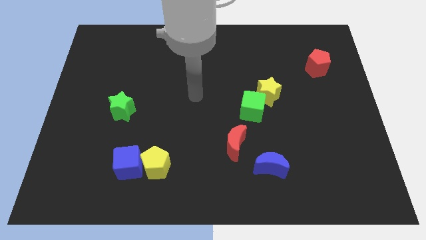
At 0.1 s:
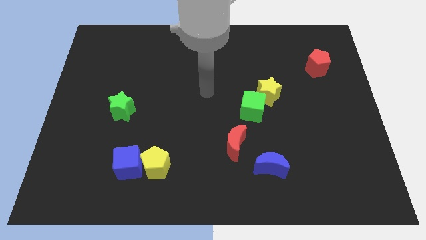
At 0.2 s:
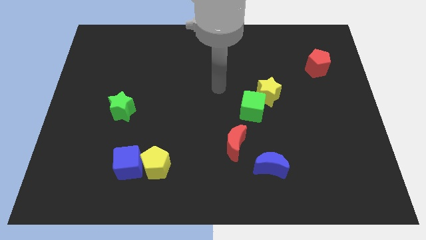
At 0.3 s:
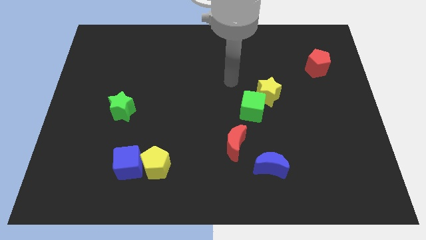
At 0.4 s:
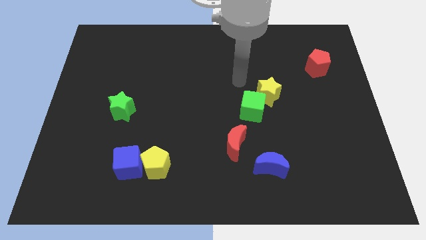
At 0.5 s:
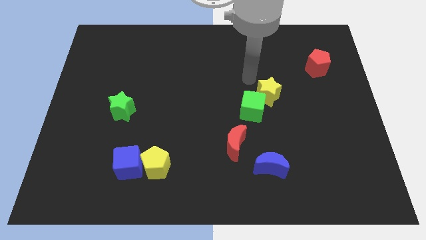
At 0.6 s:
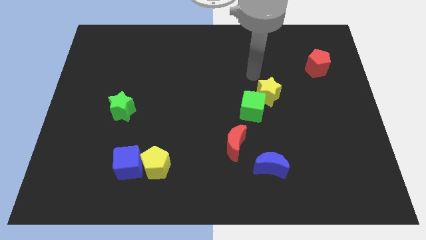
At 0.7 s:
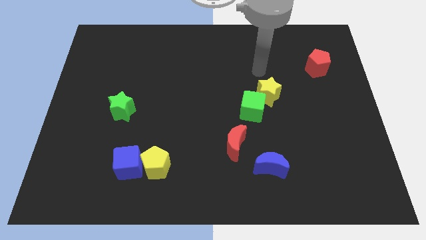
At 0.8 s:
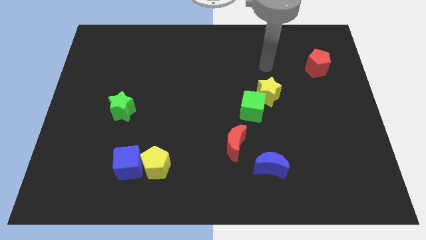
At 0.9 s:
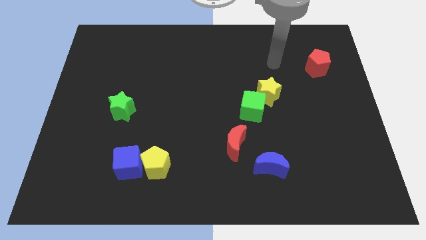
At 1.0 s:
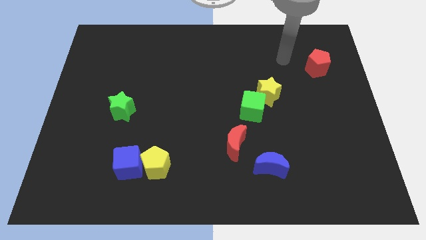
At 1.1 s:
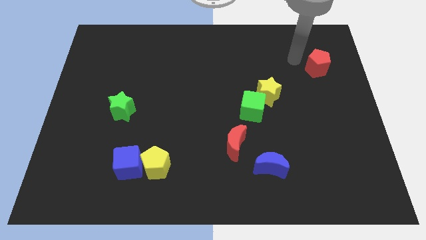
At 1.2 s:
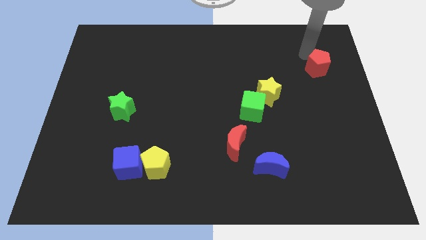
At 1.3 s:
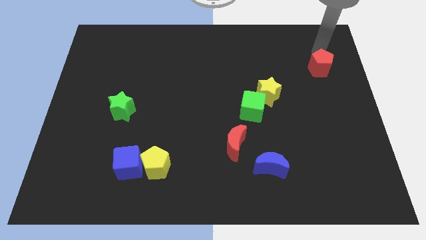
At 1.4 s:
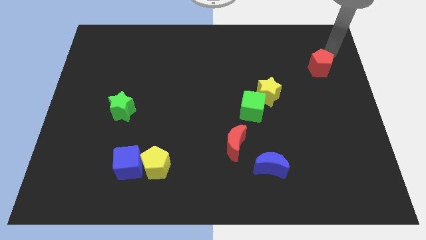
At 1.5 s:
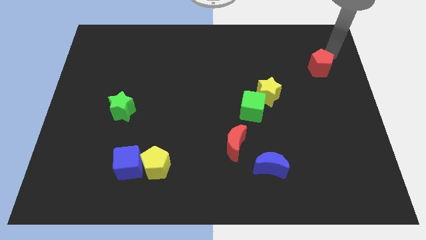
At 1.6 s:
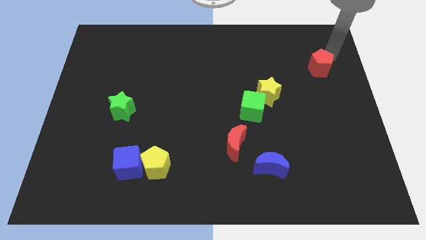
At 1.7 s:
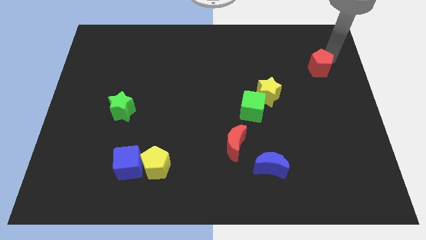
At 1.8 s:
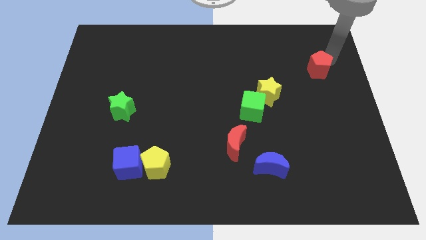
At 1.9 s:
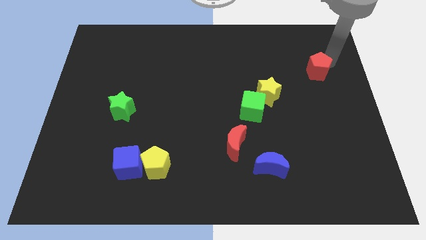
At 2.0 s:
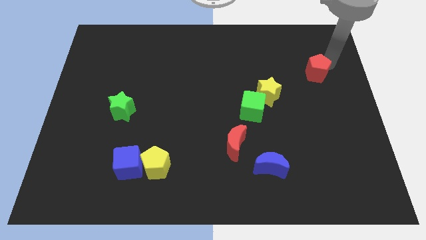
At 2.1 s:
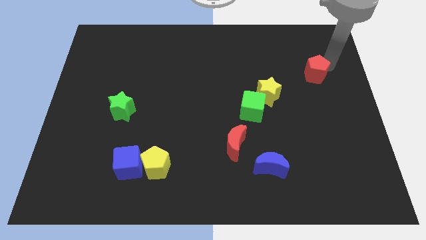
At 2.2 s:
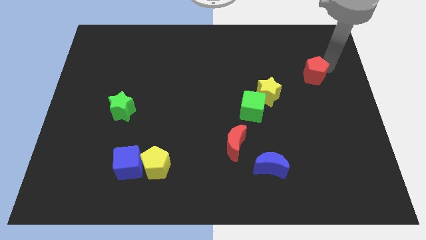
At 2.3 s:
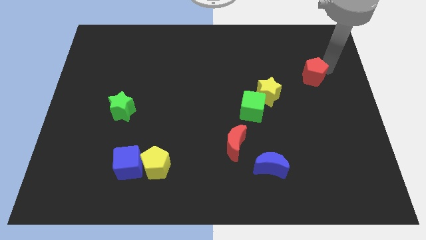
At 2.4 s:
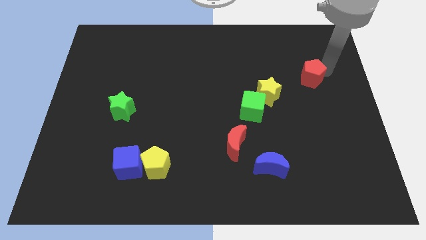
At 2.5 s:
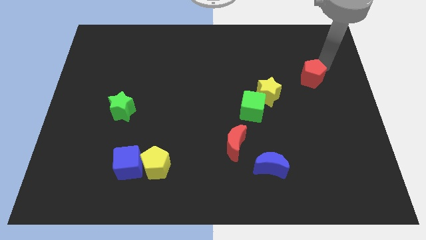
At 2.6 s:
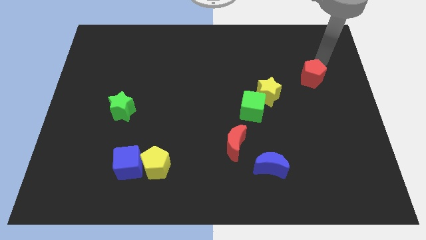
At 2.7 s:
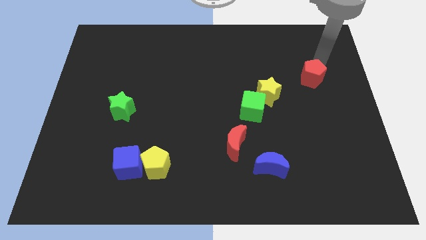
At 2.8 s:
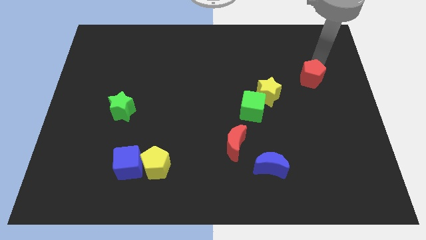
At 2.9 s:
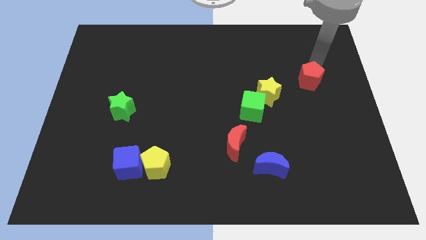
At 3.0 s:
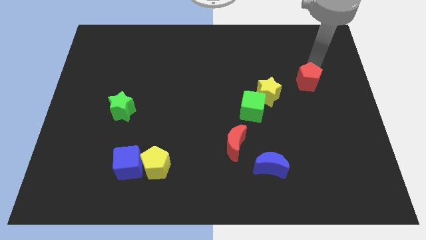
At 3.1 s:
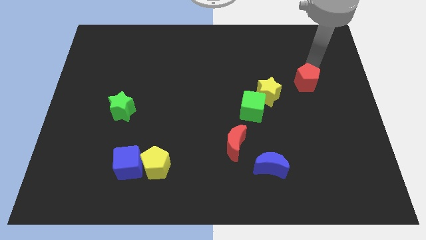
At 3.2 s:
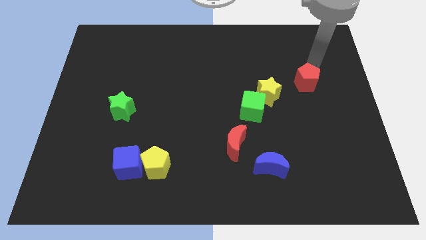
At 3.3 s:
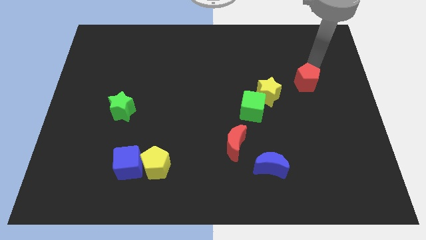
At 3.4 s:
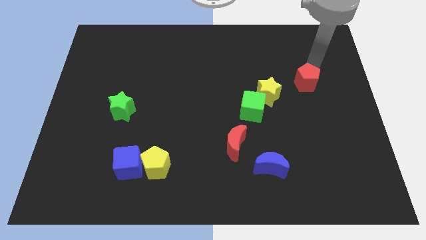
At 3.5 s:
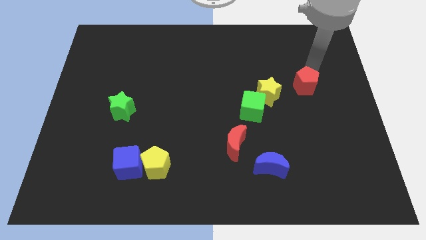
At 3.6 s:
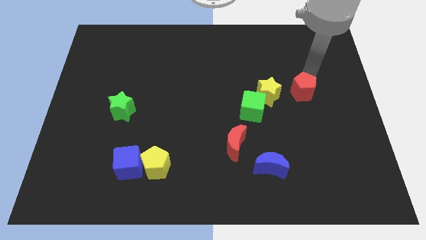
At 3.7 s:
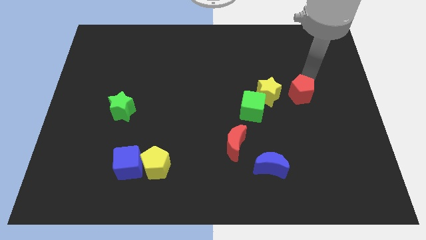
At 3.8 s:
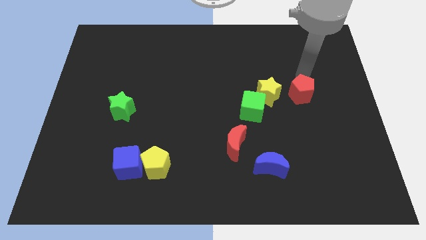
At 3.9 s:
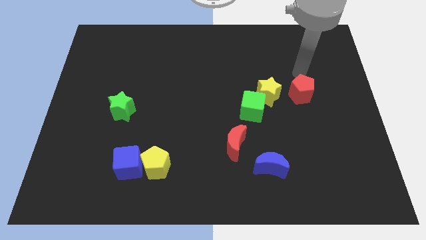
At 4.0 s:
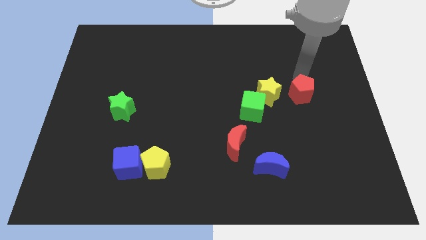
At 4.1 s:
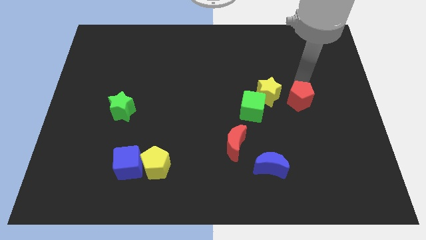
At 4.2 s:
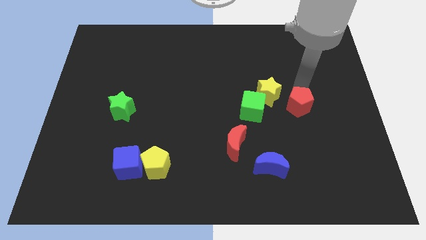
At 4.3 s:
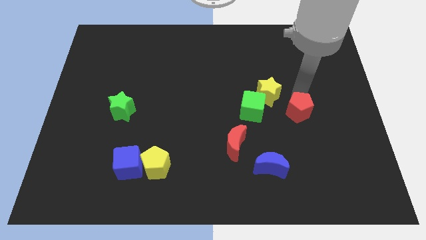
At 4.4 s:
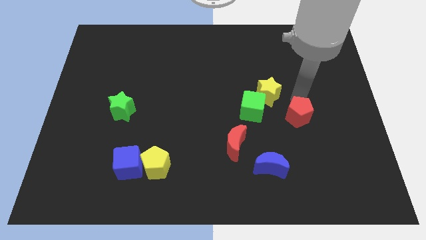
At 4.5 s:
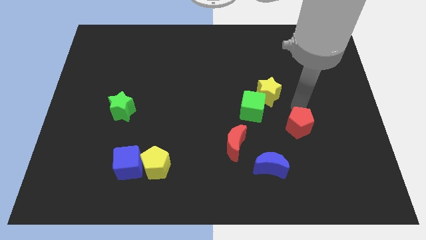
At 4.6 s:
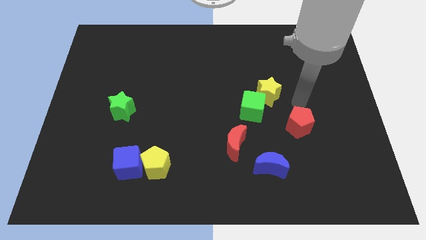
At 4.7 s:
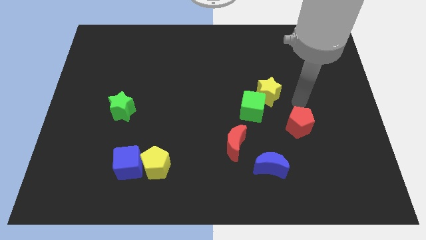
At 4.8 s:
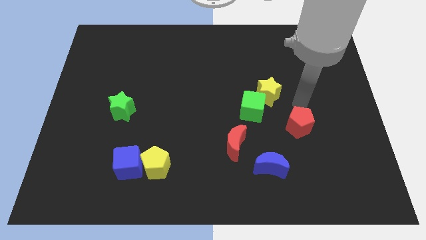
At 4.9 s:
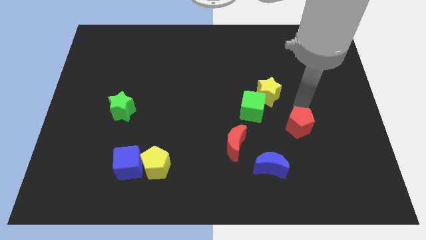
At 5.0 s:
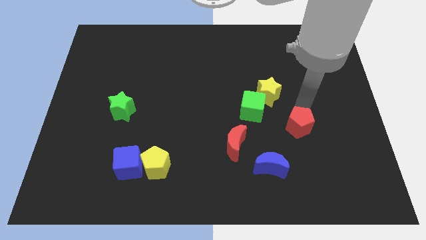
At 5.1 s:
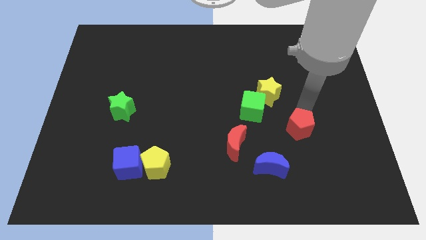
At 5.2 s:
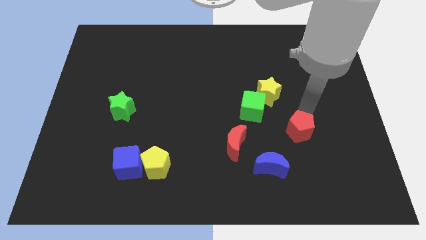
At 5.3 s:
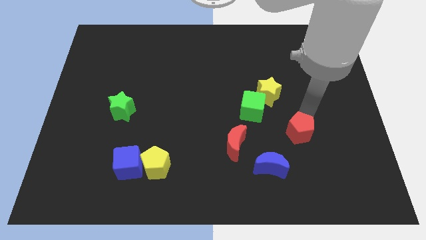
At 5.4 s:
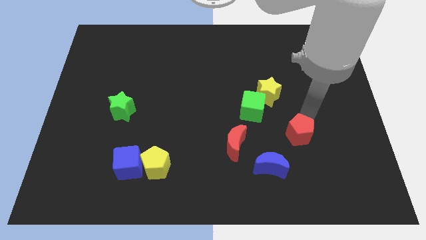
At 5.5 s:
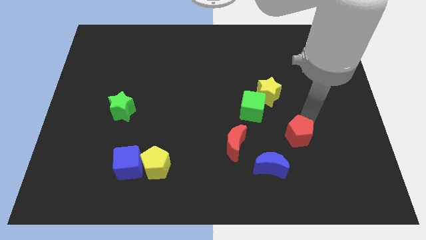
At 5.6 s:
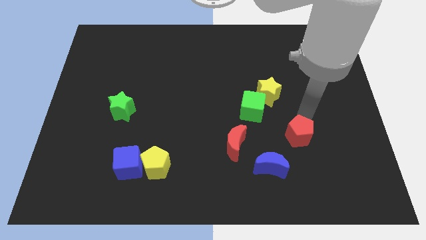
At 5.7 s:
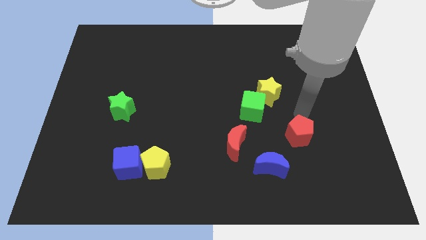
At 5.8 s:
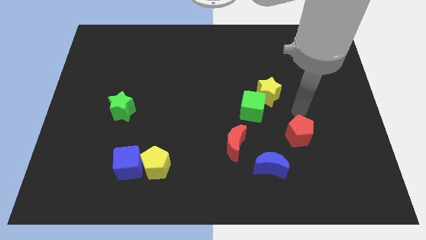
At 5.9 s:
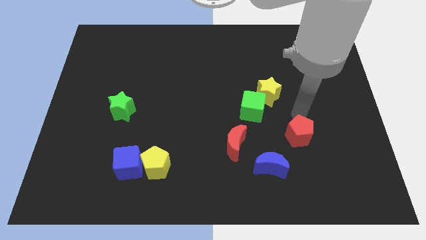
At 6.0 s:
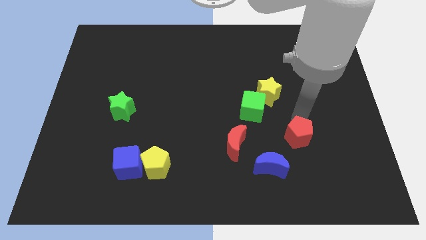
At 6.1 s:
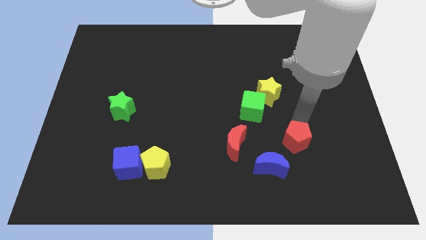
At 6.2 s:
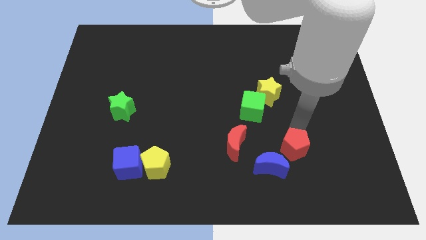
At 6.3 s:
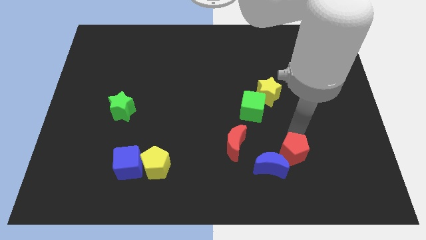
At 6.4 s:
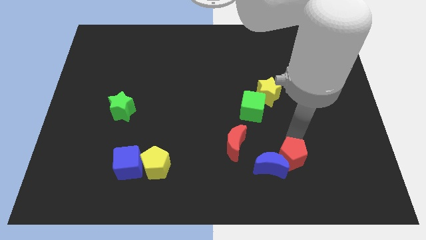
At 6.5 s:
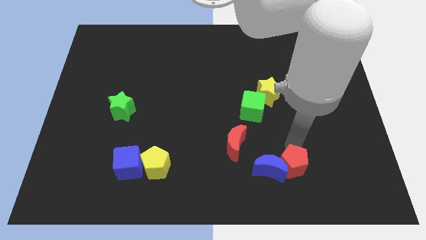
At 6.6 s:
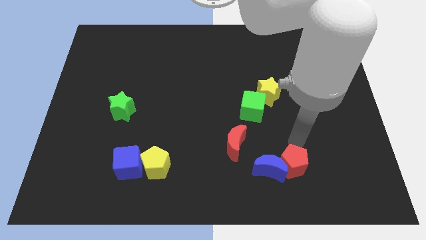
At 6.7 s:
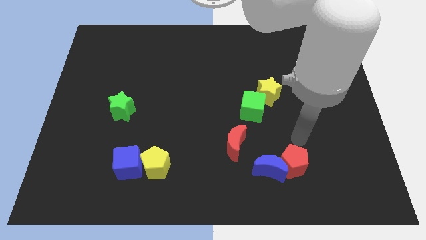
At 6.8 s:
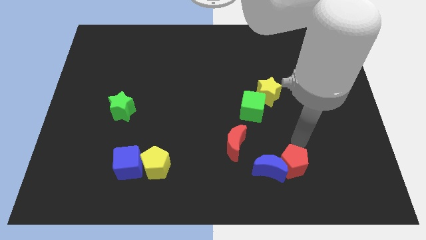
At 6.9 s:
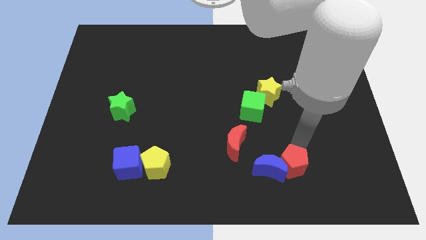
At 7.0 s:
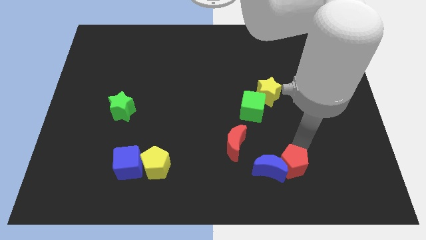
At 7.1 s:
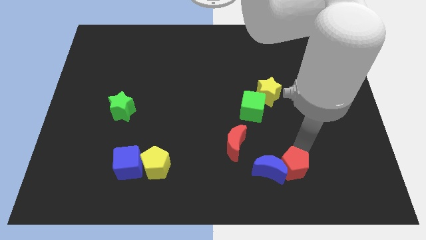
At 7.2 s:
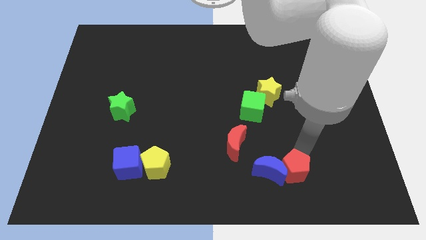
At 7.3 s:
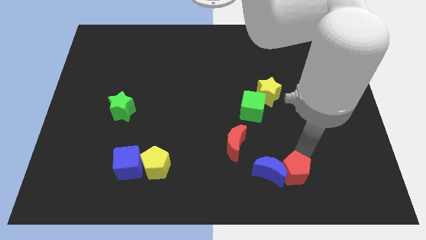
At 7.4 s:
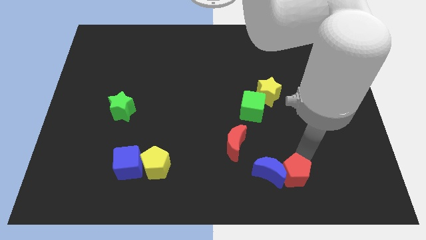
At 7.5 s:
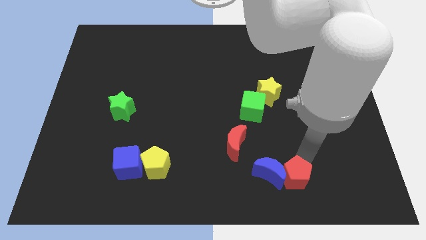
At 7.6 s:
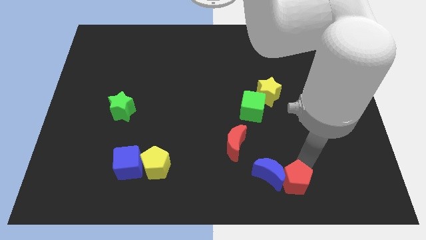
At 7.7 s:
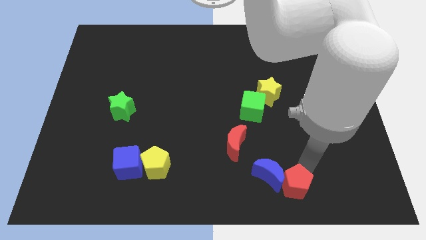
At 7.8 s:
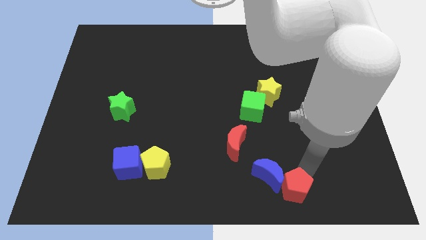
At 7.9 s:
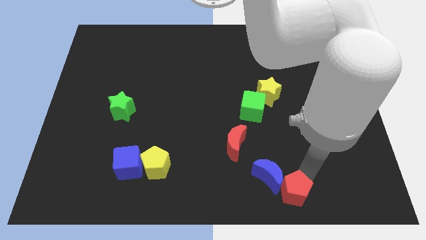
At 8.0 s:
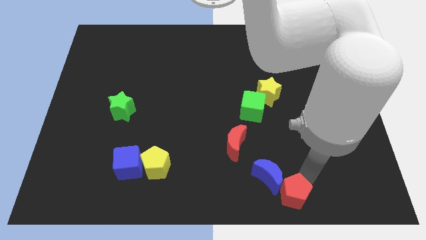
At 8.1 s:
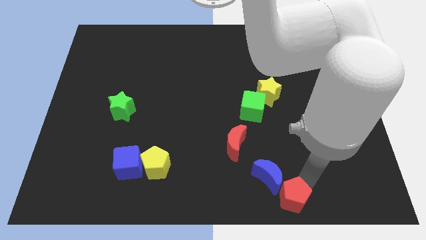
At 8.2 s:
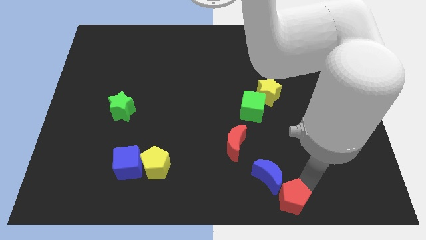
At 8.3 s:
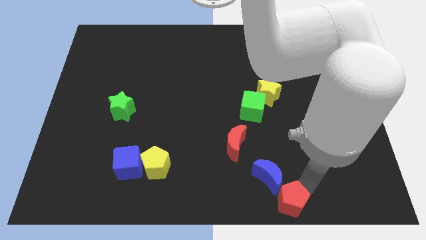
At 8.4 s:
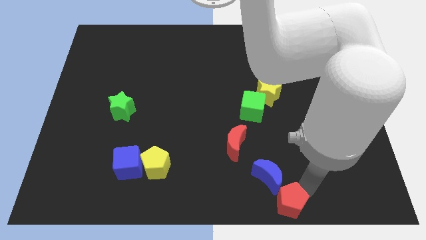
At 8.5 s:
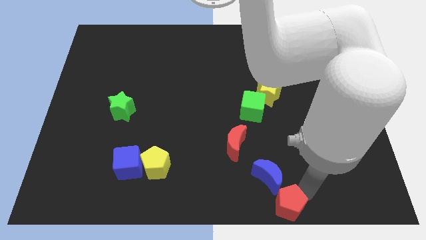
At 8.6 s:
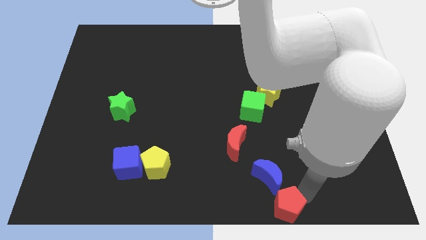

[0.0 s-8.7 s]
move the red pentagon to the bottom side
